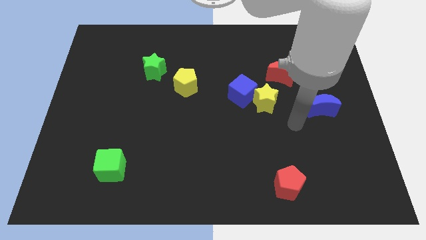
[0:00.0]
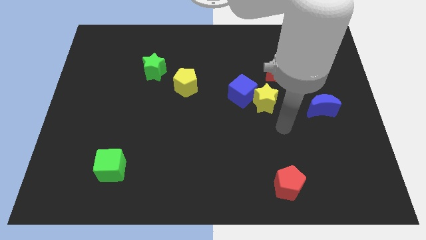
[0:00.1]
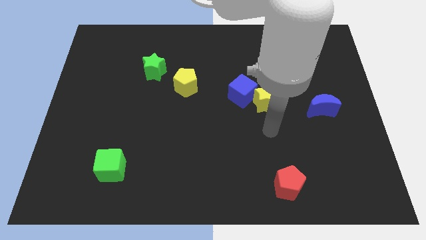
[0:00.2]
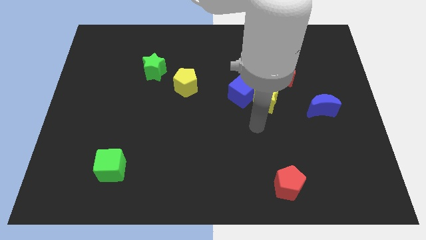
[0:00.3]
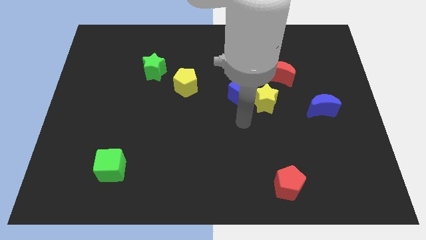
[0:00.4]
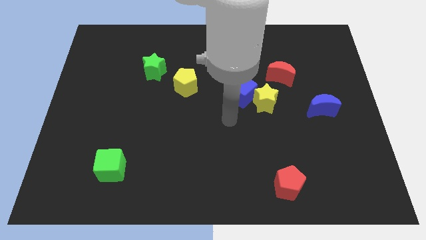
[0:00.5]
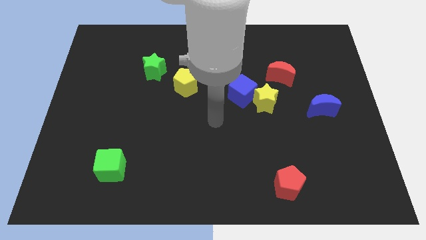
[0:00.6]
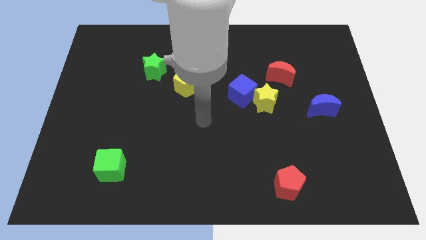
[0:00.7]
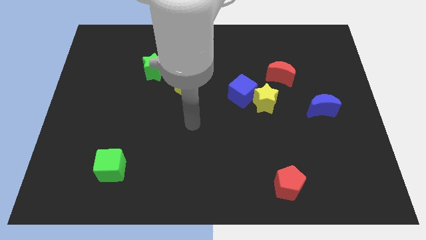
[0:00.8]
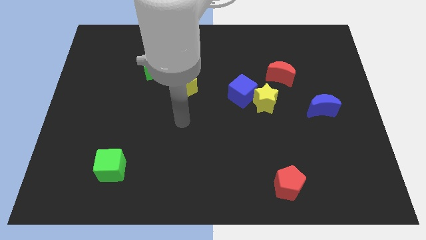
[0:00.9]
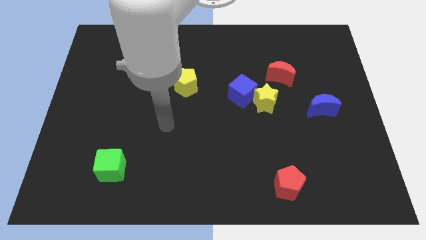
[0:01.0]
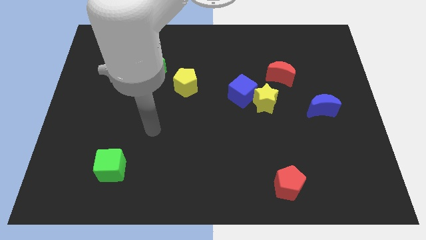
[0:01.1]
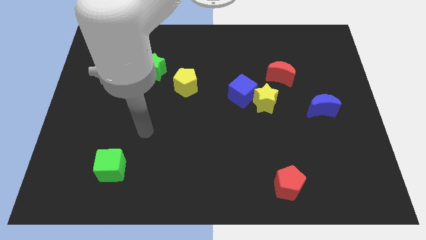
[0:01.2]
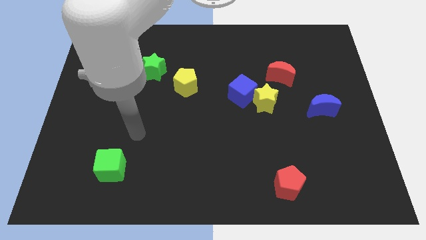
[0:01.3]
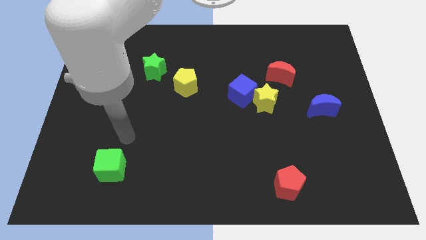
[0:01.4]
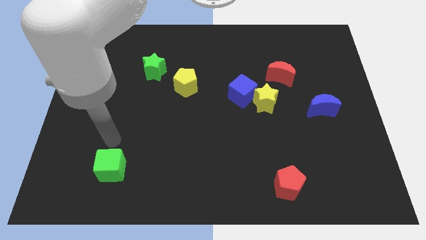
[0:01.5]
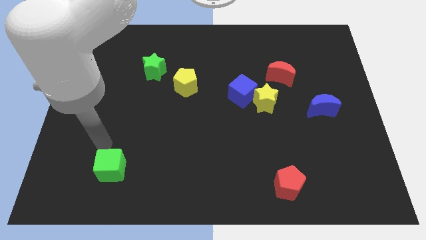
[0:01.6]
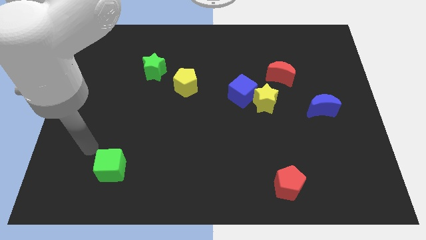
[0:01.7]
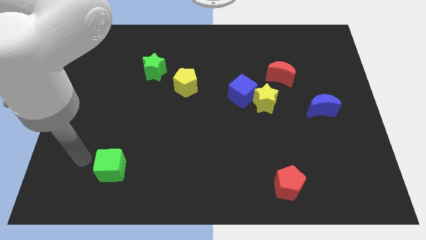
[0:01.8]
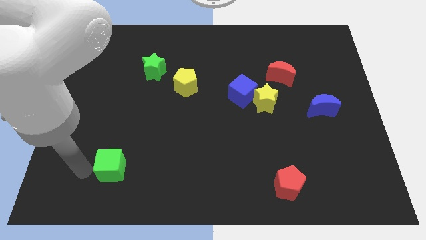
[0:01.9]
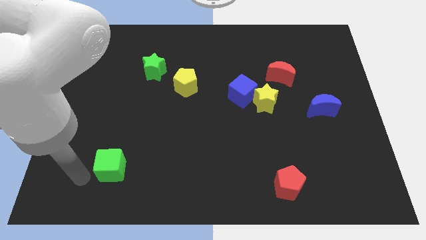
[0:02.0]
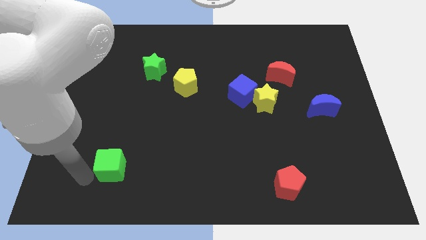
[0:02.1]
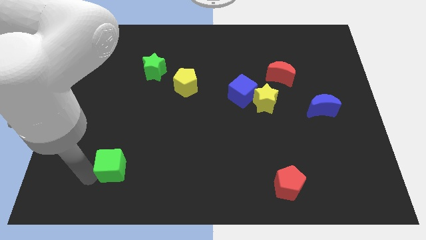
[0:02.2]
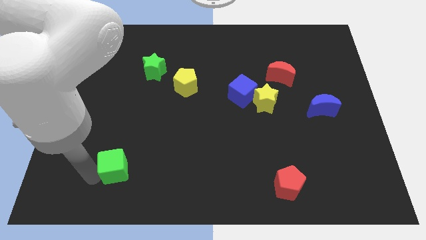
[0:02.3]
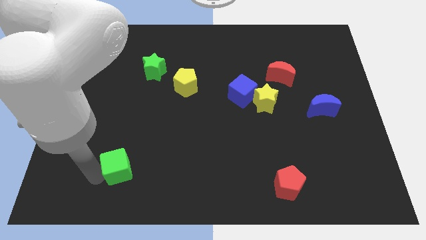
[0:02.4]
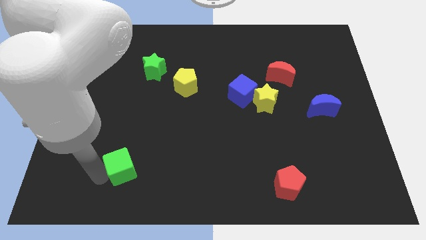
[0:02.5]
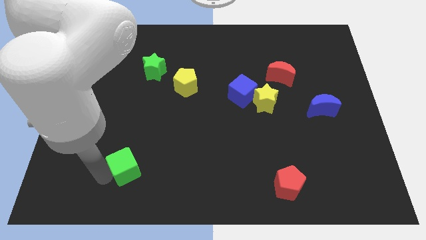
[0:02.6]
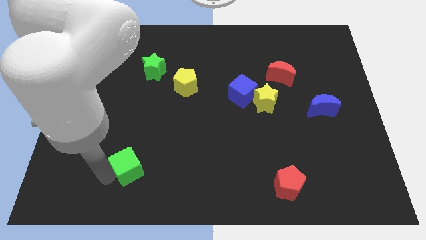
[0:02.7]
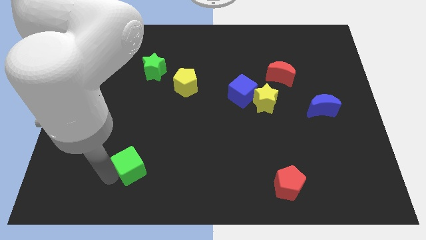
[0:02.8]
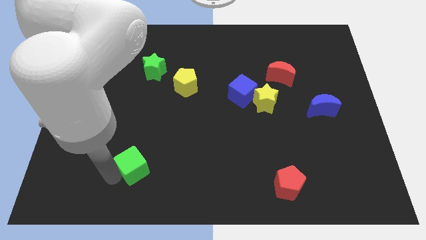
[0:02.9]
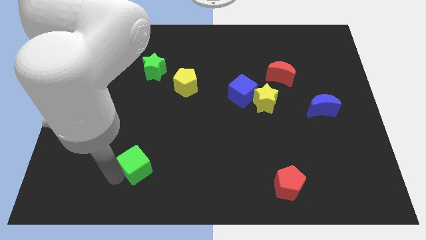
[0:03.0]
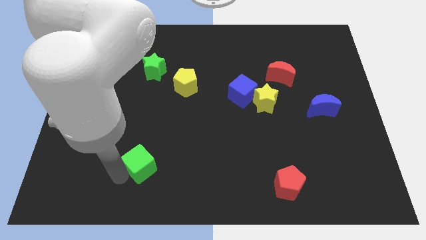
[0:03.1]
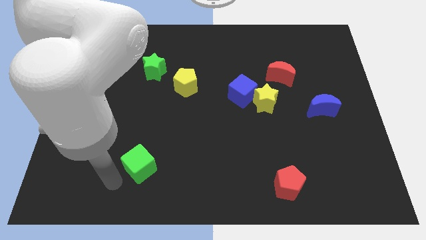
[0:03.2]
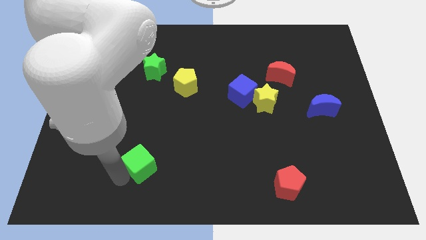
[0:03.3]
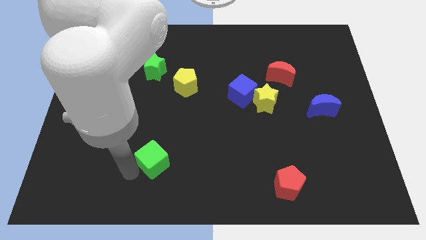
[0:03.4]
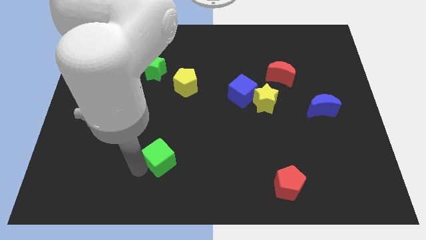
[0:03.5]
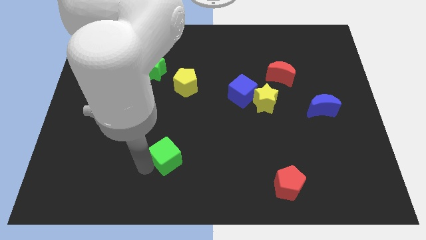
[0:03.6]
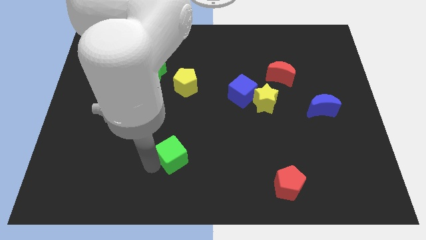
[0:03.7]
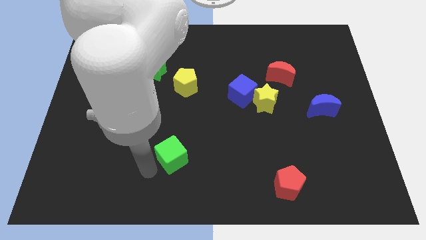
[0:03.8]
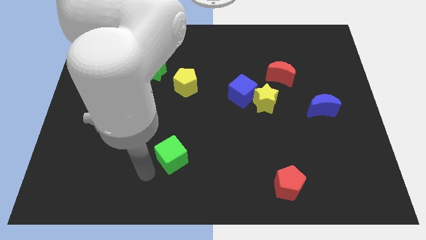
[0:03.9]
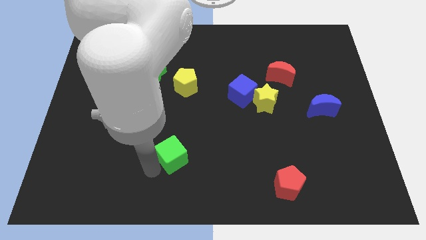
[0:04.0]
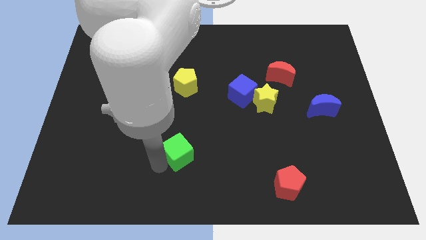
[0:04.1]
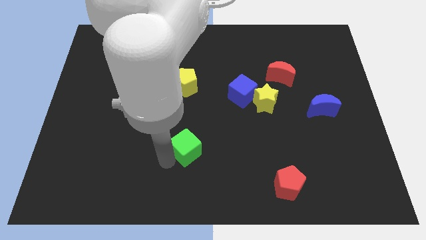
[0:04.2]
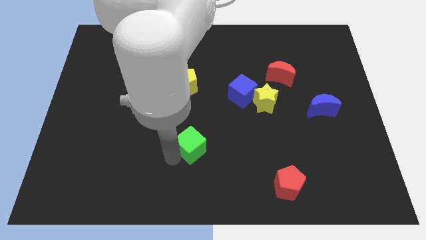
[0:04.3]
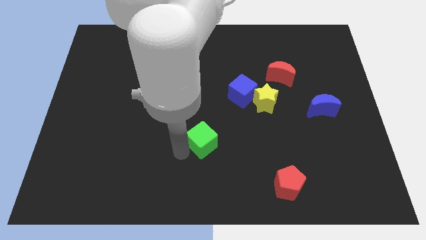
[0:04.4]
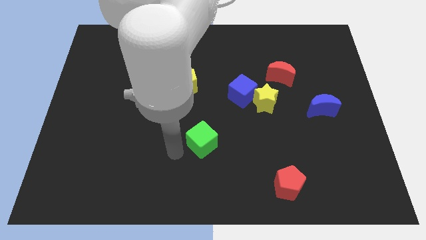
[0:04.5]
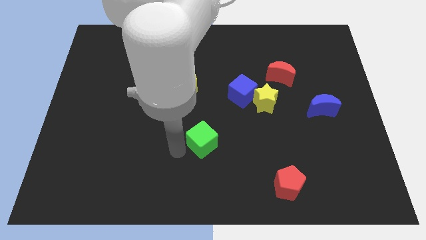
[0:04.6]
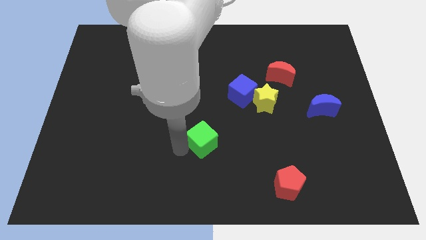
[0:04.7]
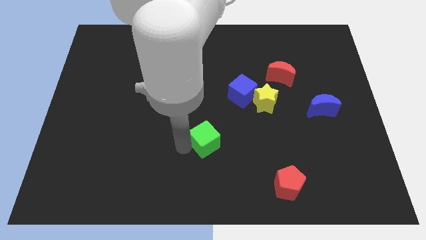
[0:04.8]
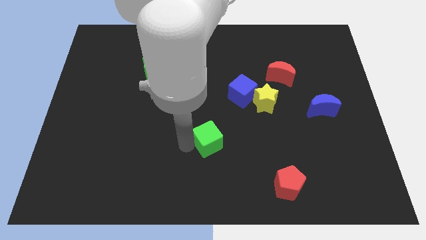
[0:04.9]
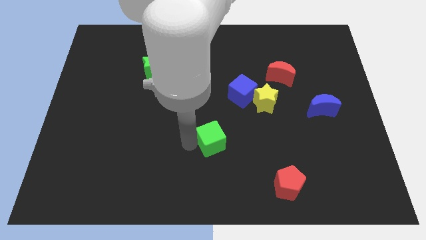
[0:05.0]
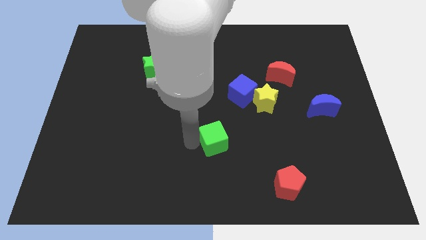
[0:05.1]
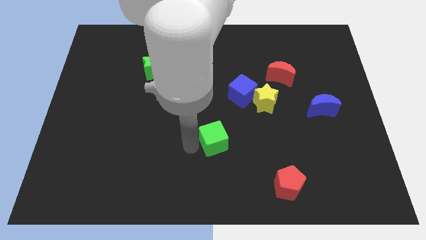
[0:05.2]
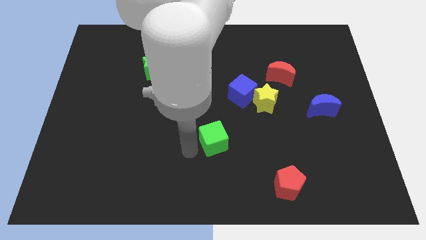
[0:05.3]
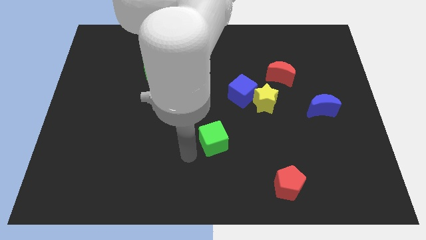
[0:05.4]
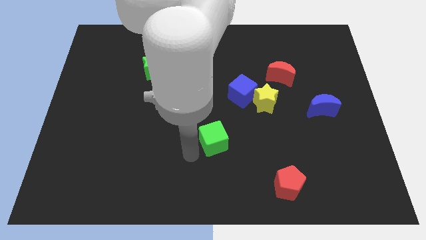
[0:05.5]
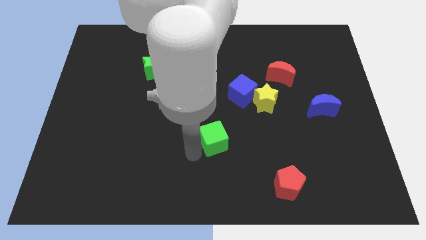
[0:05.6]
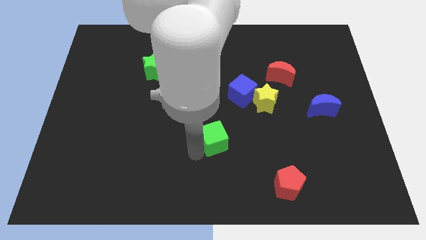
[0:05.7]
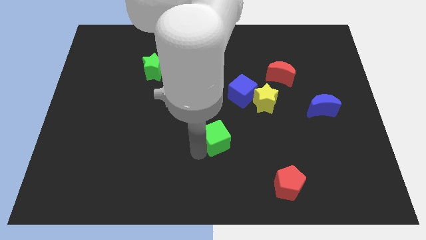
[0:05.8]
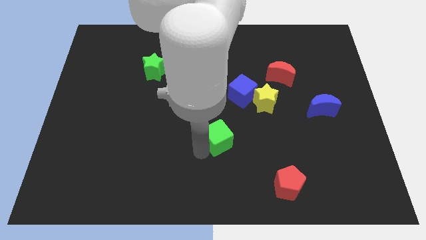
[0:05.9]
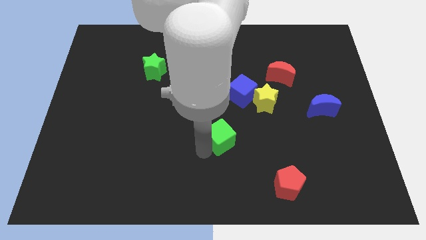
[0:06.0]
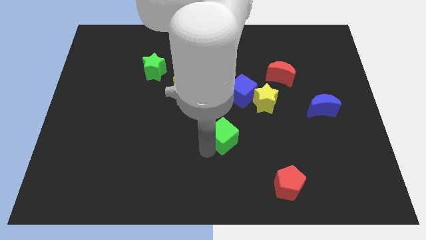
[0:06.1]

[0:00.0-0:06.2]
put the green cube below the blue cube

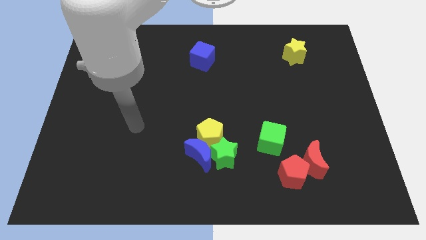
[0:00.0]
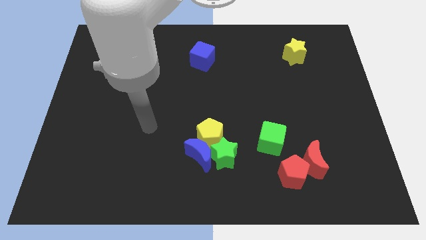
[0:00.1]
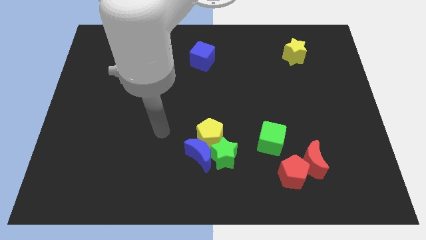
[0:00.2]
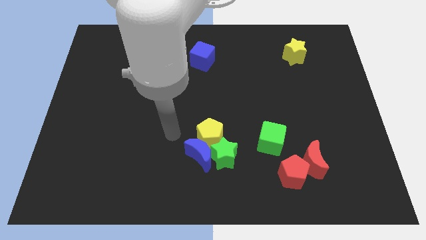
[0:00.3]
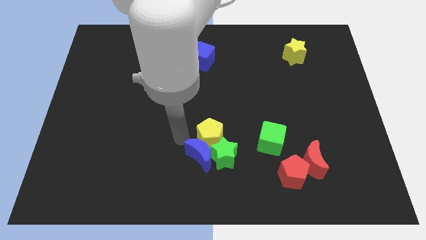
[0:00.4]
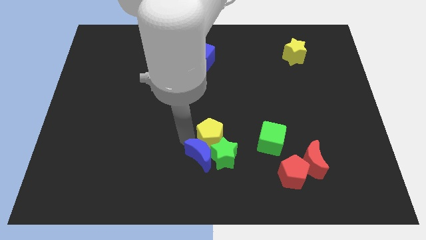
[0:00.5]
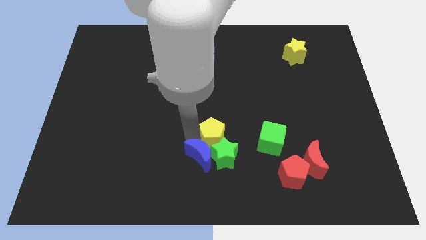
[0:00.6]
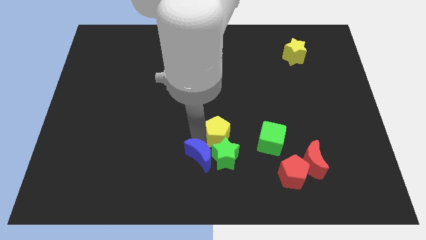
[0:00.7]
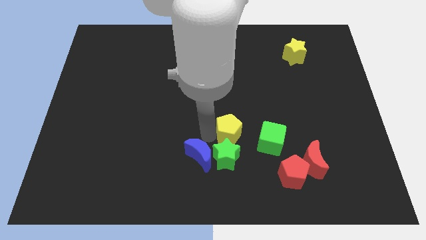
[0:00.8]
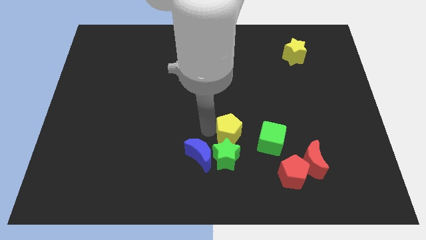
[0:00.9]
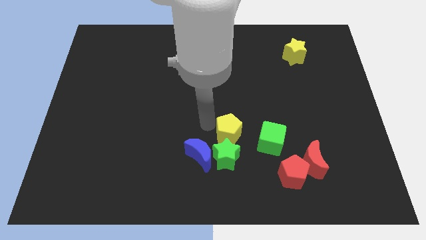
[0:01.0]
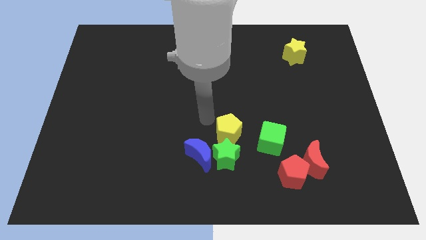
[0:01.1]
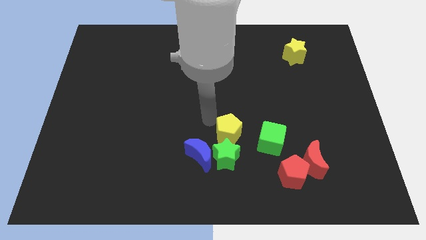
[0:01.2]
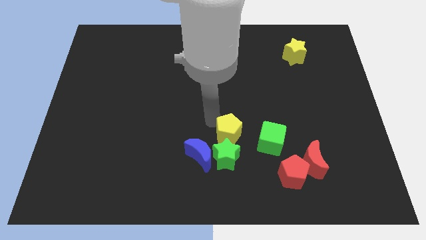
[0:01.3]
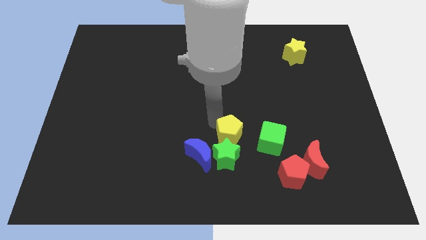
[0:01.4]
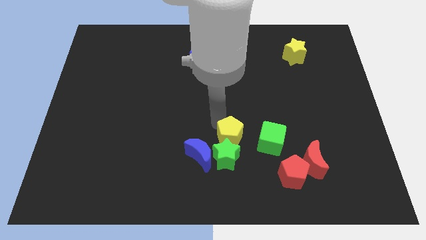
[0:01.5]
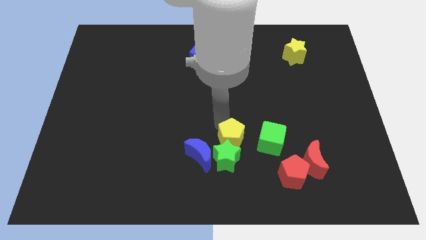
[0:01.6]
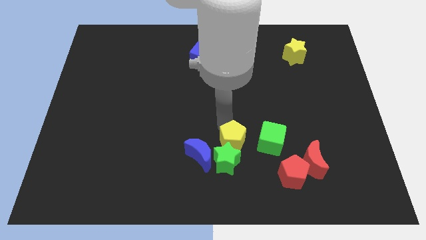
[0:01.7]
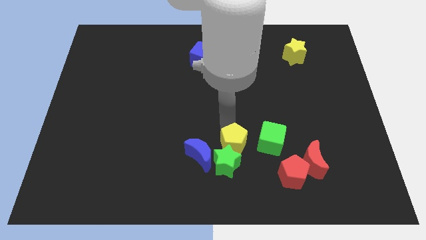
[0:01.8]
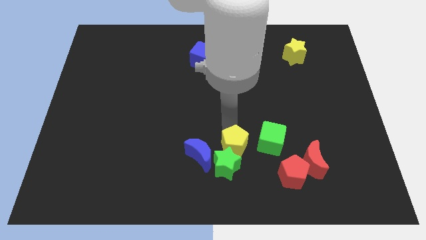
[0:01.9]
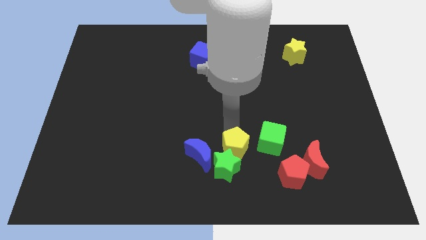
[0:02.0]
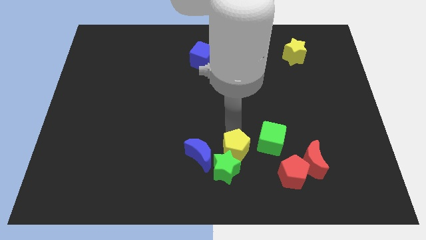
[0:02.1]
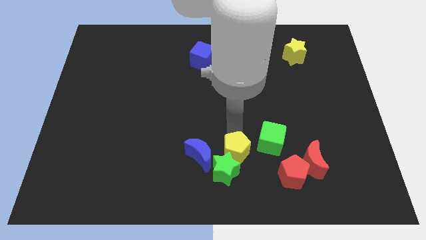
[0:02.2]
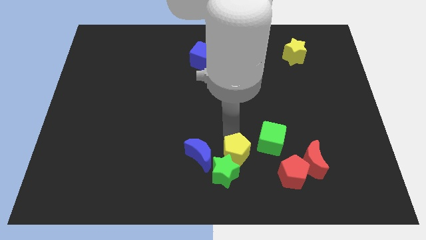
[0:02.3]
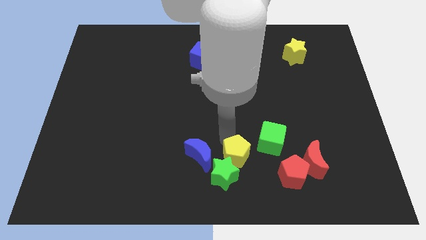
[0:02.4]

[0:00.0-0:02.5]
push the yellow pentagon just left of the red moon
